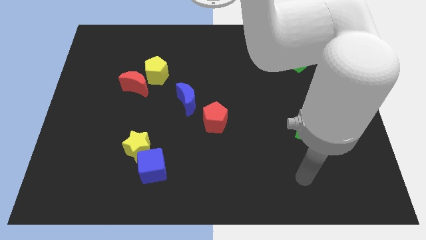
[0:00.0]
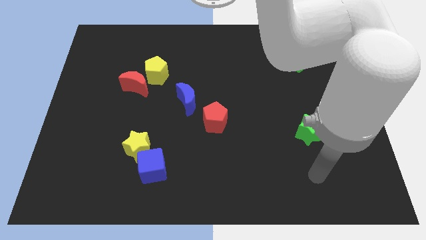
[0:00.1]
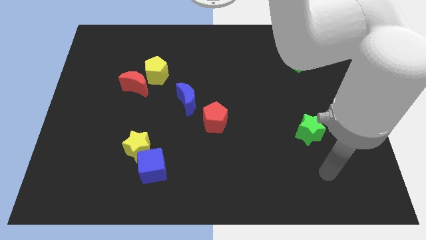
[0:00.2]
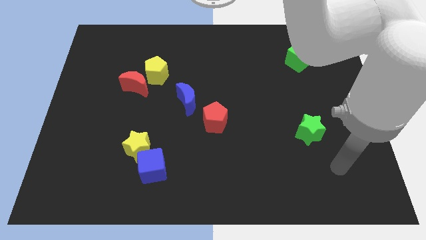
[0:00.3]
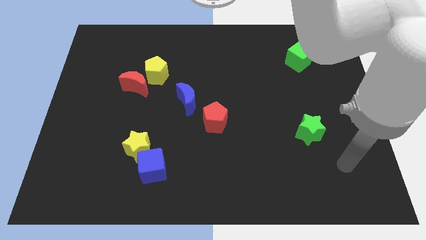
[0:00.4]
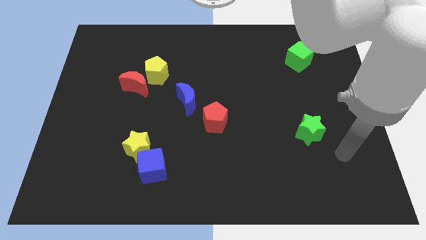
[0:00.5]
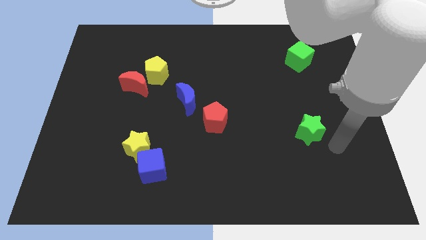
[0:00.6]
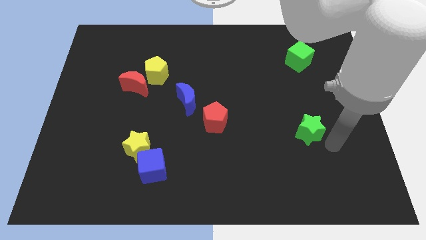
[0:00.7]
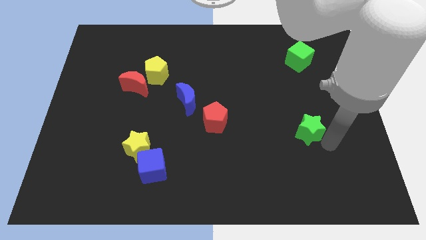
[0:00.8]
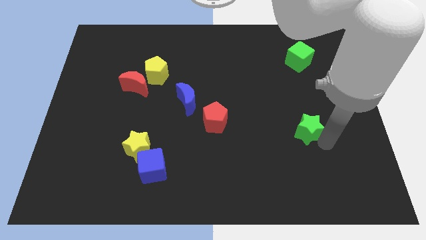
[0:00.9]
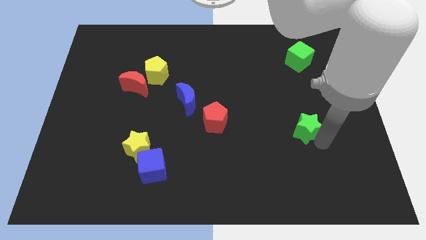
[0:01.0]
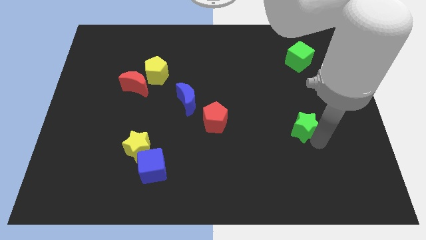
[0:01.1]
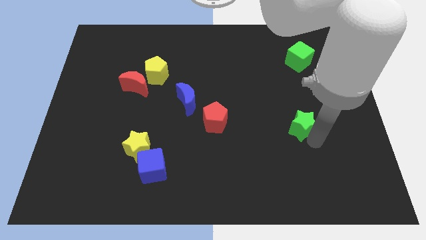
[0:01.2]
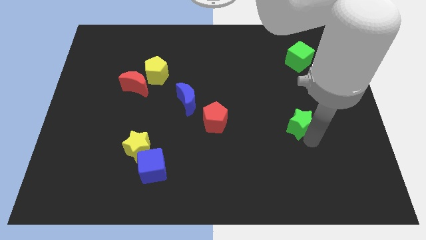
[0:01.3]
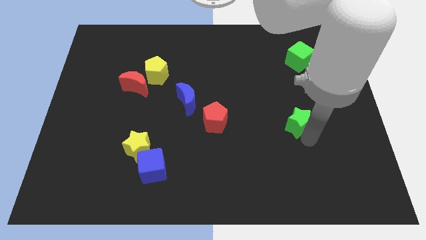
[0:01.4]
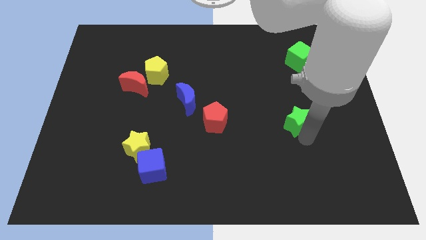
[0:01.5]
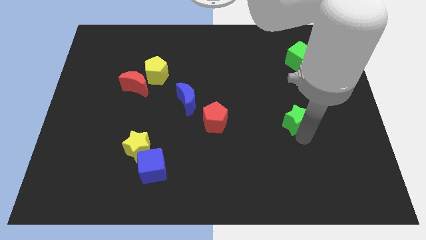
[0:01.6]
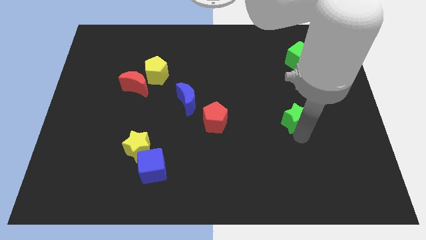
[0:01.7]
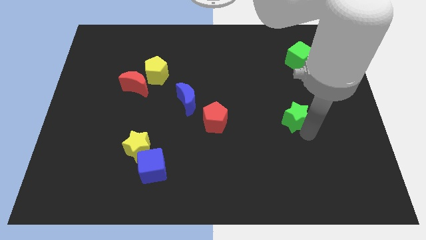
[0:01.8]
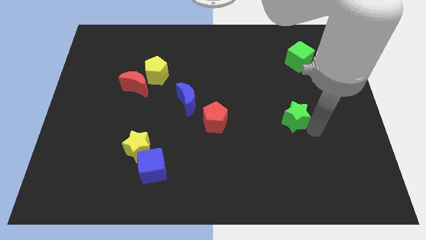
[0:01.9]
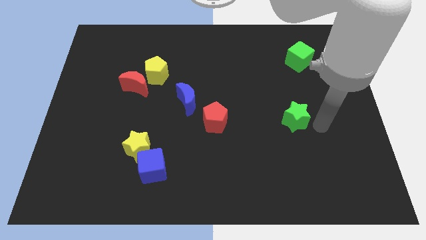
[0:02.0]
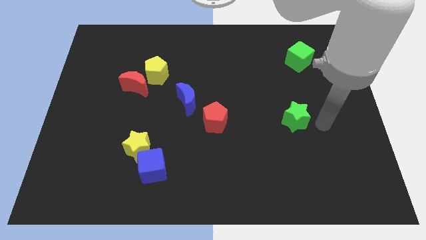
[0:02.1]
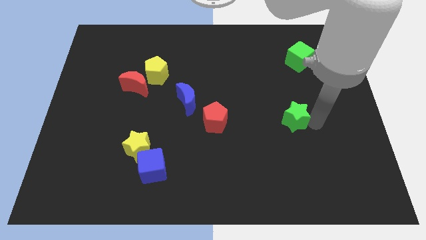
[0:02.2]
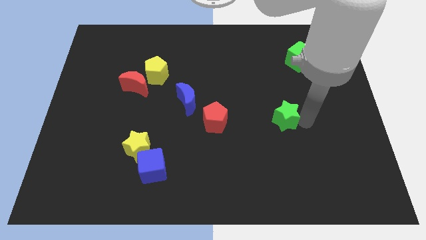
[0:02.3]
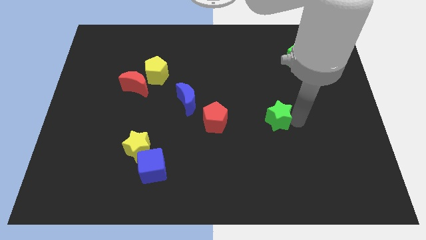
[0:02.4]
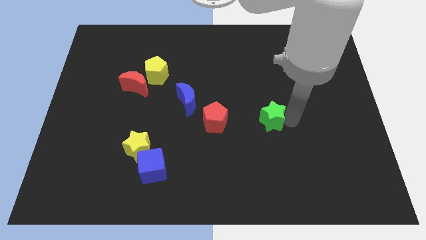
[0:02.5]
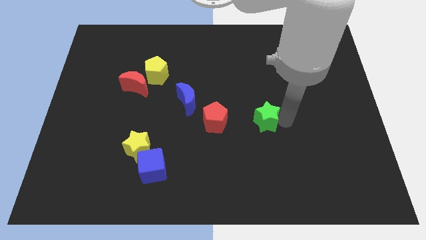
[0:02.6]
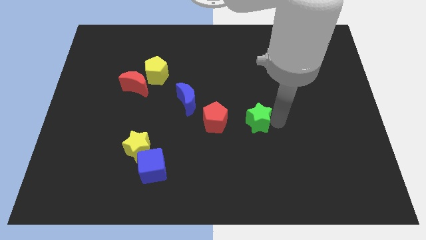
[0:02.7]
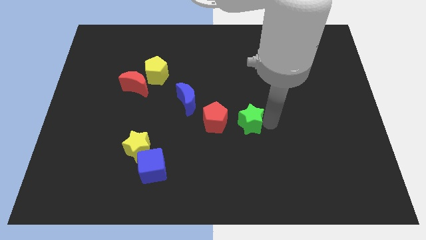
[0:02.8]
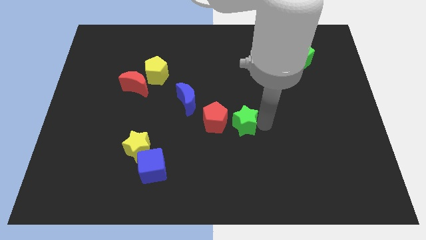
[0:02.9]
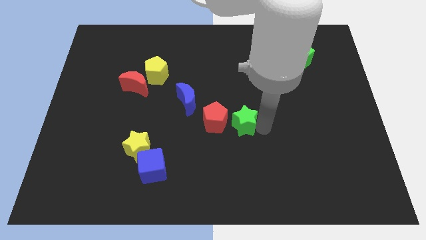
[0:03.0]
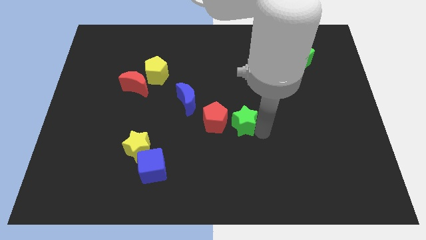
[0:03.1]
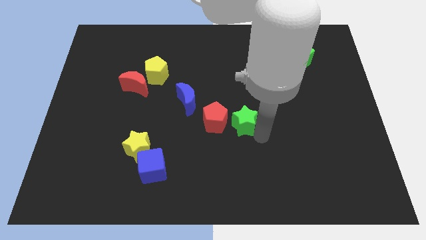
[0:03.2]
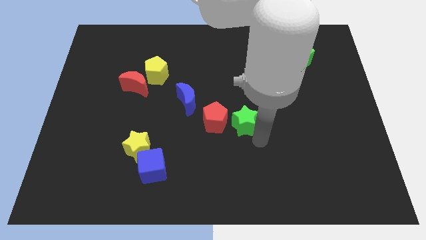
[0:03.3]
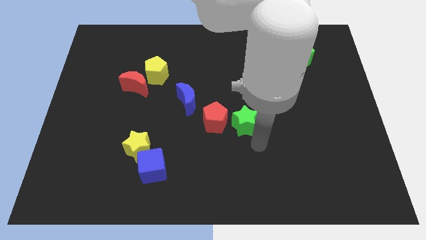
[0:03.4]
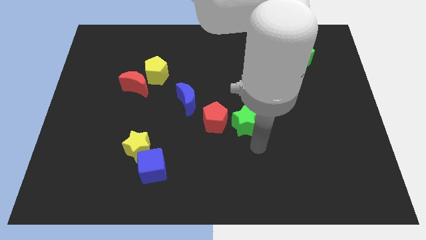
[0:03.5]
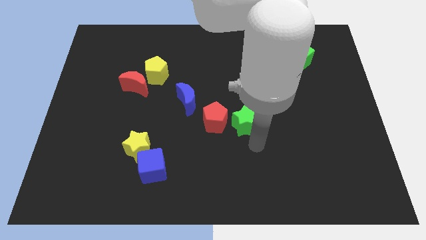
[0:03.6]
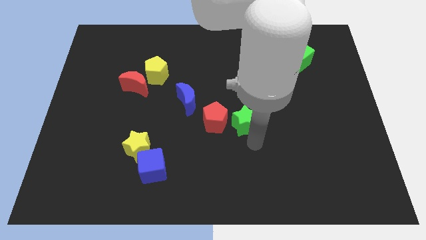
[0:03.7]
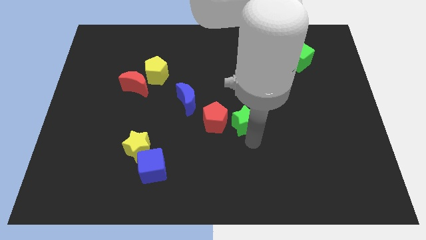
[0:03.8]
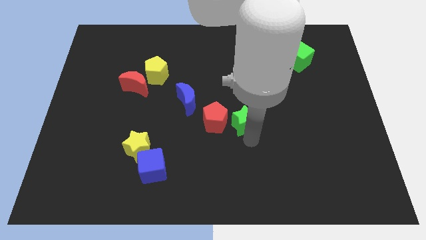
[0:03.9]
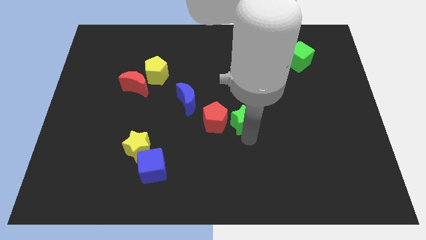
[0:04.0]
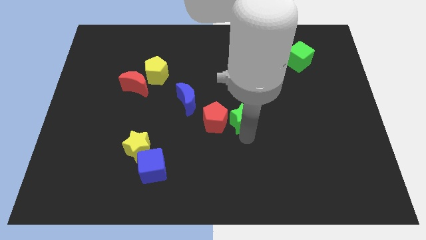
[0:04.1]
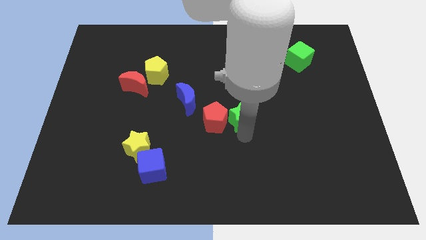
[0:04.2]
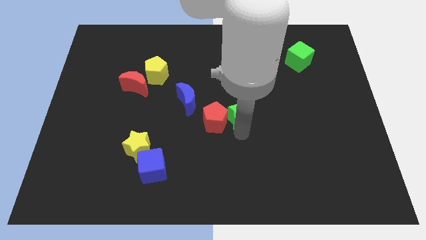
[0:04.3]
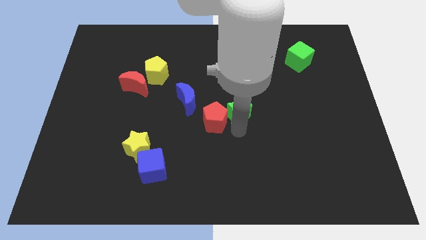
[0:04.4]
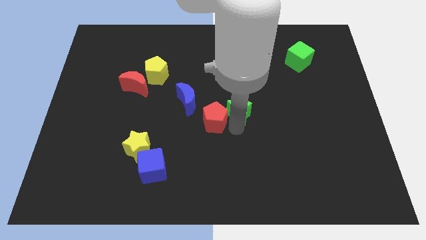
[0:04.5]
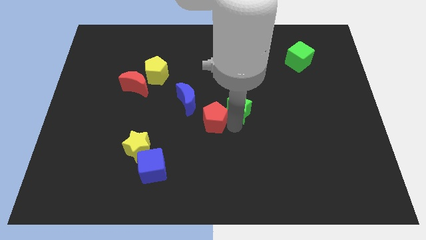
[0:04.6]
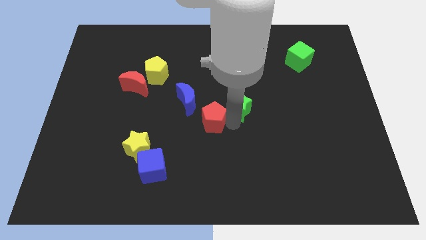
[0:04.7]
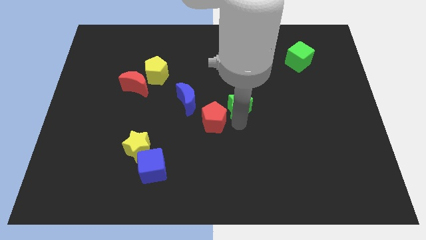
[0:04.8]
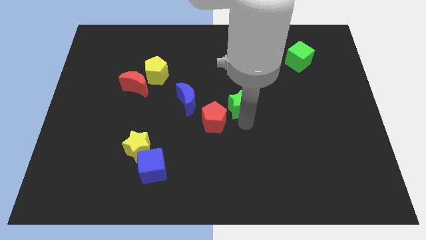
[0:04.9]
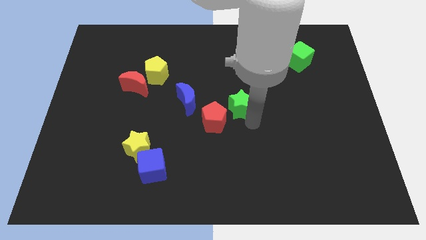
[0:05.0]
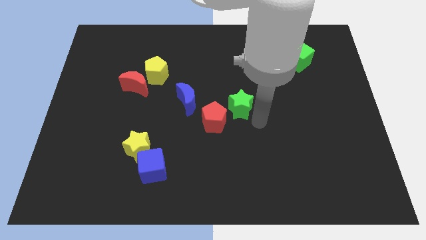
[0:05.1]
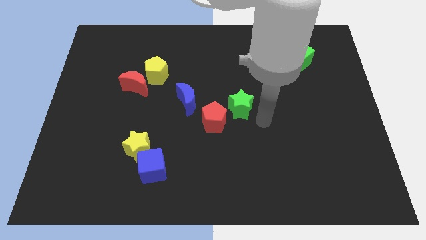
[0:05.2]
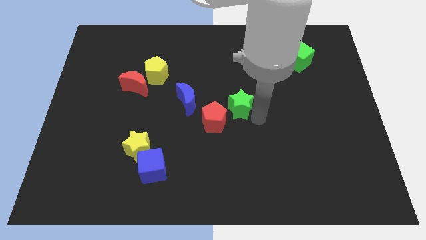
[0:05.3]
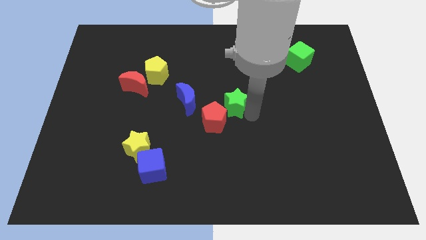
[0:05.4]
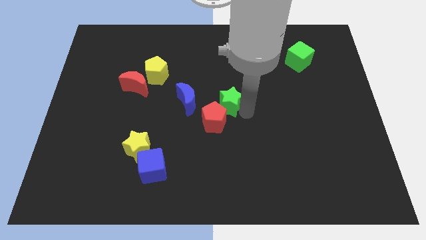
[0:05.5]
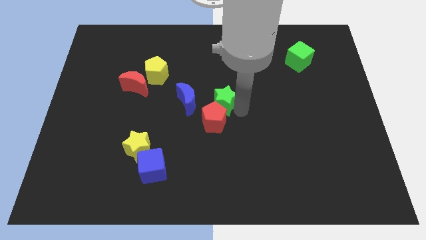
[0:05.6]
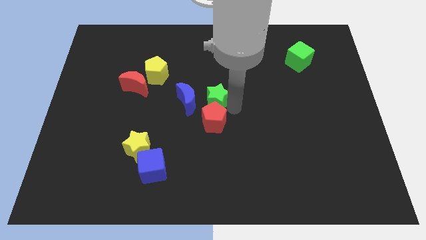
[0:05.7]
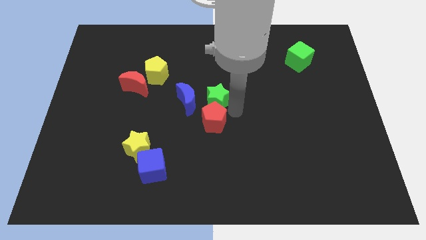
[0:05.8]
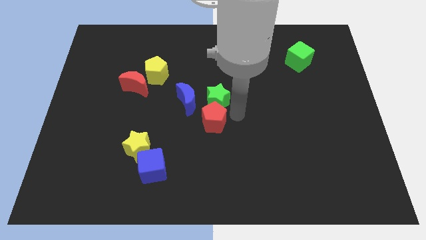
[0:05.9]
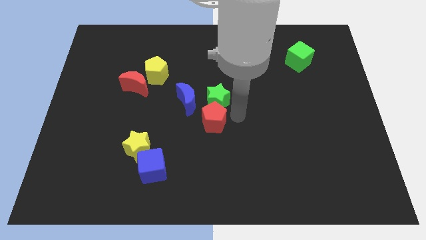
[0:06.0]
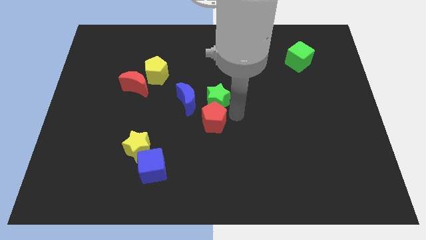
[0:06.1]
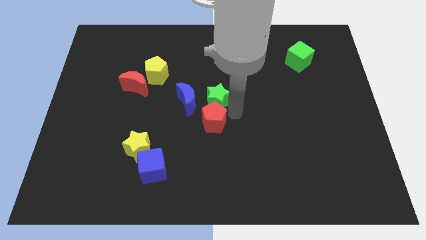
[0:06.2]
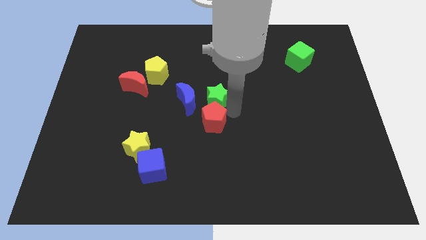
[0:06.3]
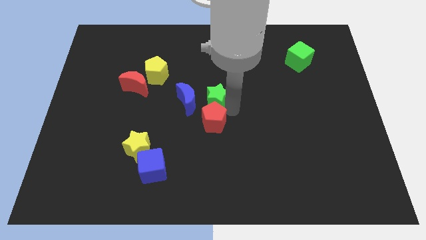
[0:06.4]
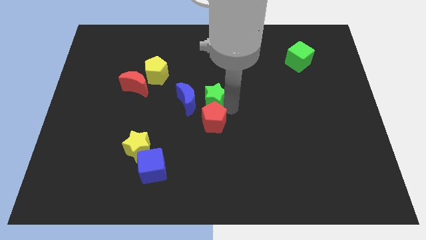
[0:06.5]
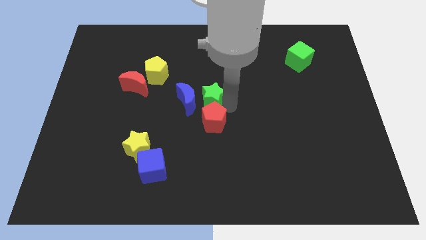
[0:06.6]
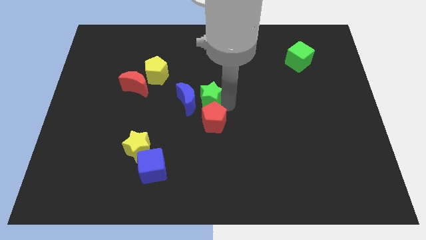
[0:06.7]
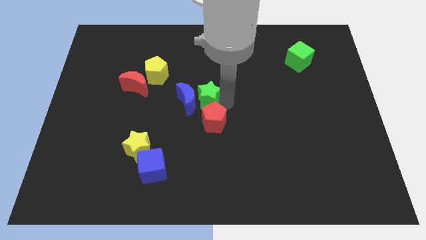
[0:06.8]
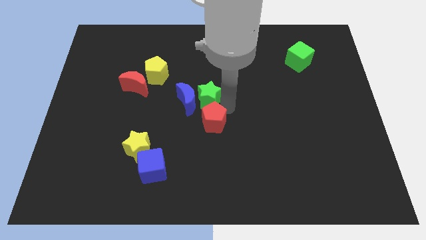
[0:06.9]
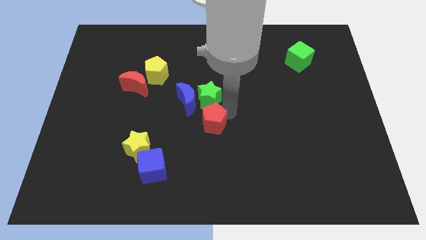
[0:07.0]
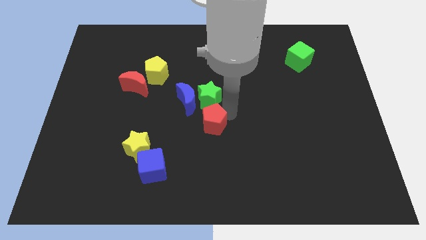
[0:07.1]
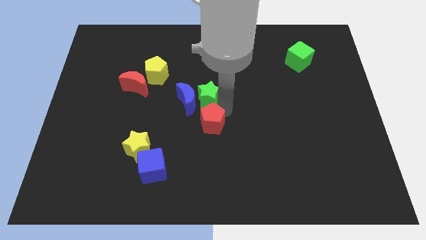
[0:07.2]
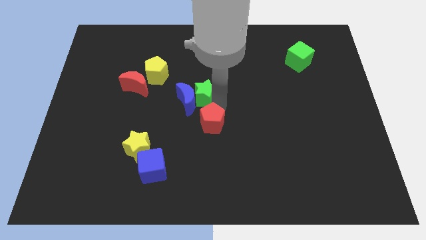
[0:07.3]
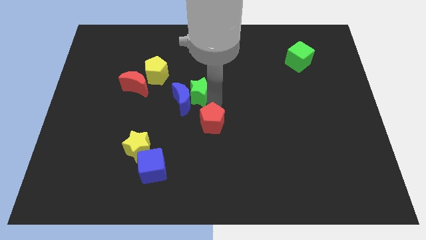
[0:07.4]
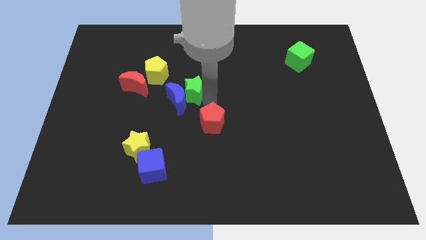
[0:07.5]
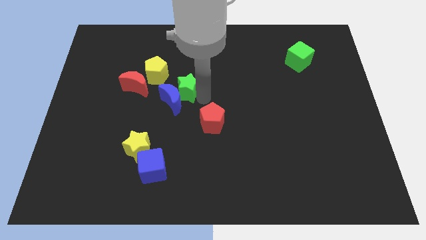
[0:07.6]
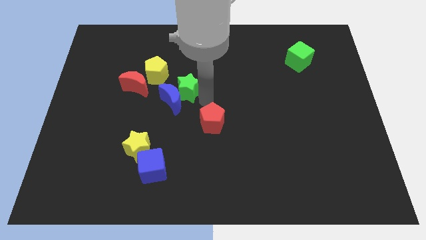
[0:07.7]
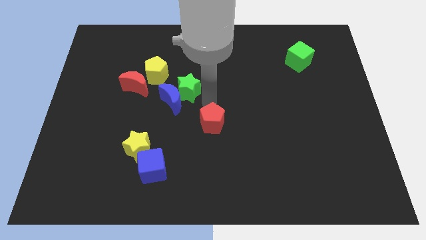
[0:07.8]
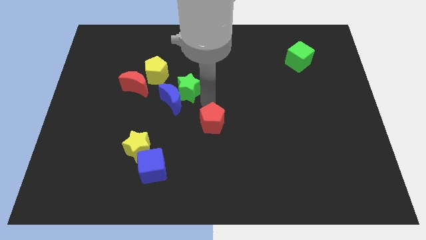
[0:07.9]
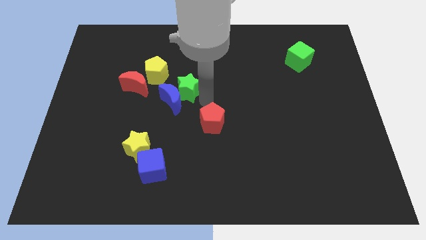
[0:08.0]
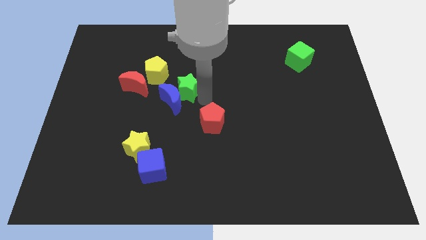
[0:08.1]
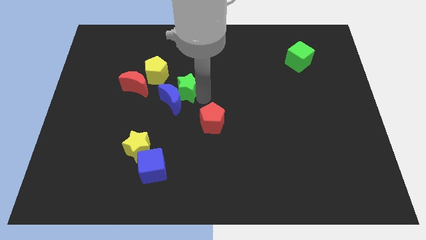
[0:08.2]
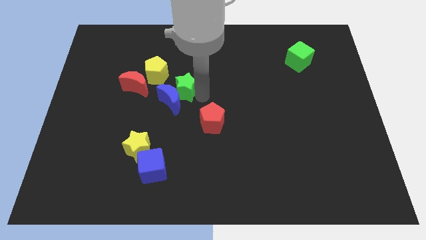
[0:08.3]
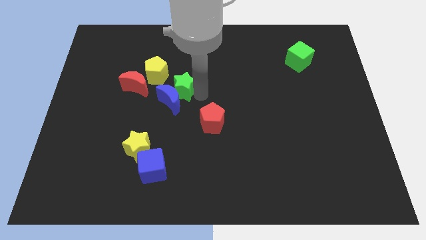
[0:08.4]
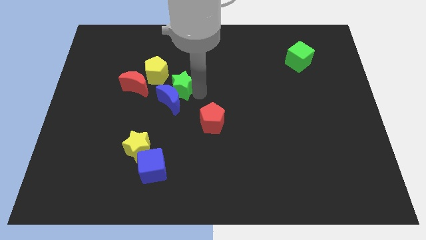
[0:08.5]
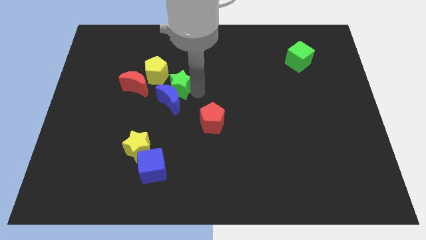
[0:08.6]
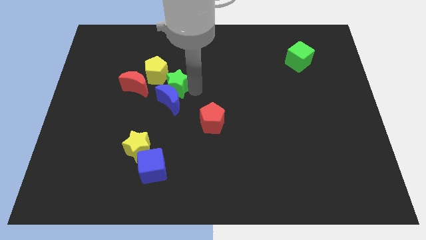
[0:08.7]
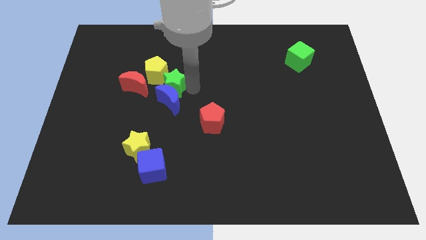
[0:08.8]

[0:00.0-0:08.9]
push the green star towards the yellow pentagon
